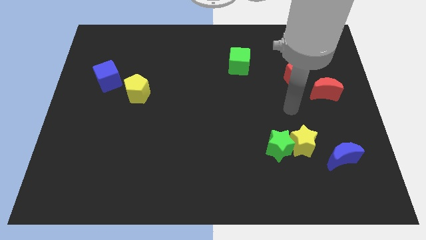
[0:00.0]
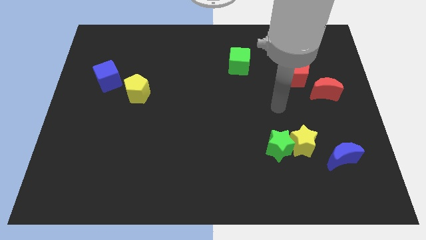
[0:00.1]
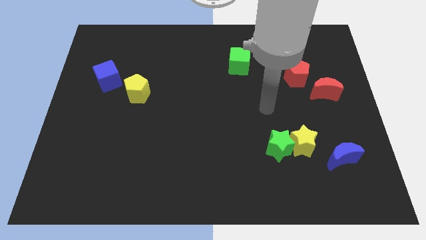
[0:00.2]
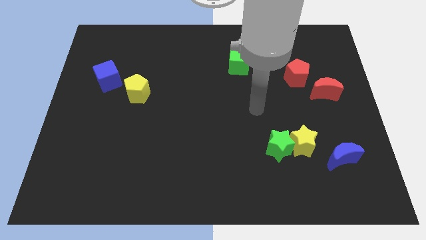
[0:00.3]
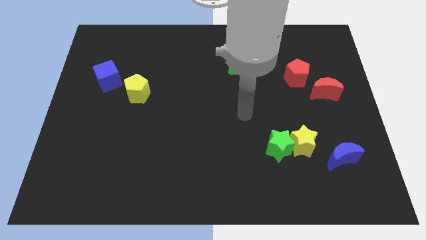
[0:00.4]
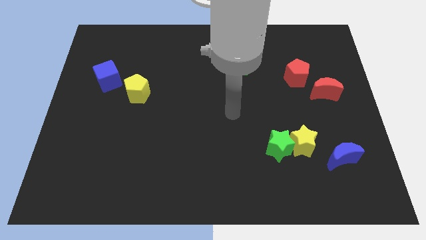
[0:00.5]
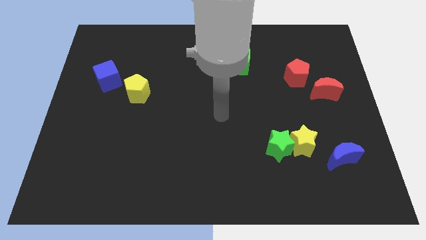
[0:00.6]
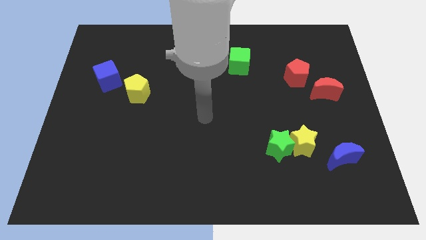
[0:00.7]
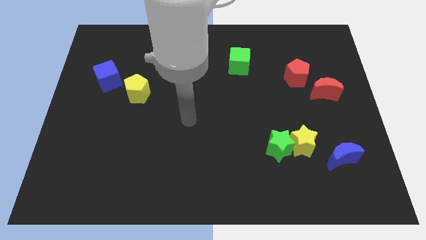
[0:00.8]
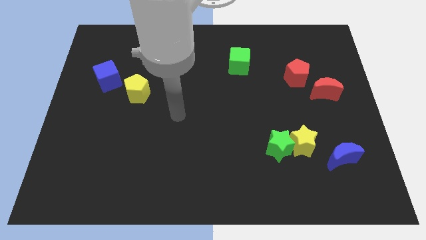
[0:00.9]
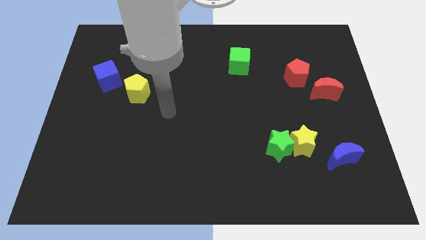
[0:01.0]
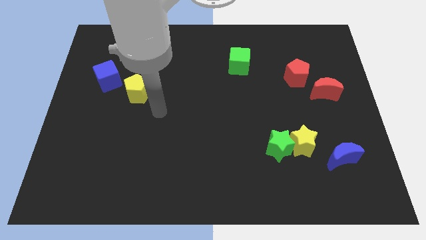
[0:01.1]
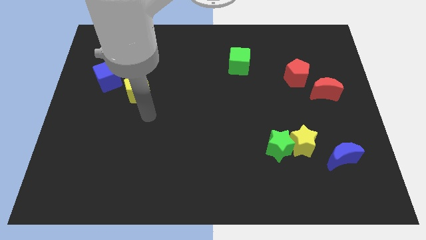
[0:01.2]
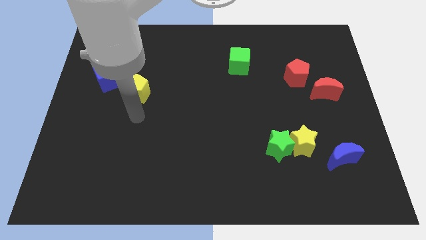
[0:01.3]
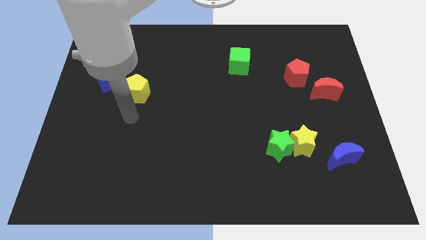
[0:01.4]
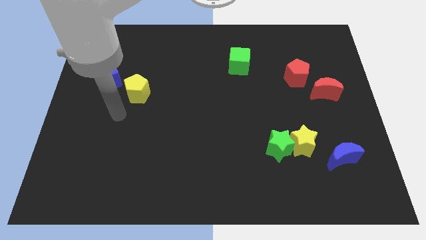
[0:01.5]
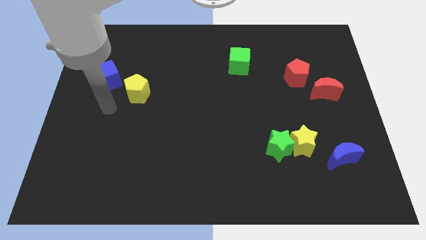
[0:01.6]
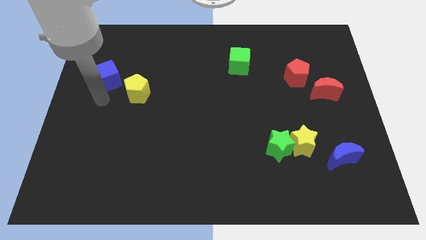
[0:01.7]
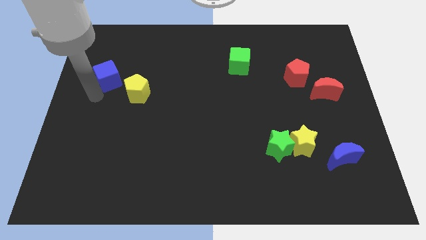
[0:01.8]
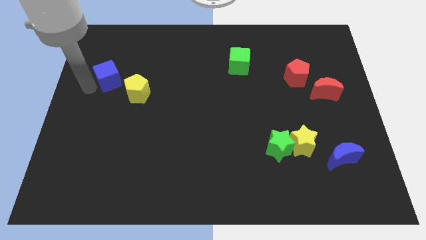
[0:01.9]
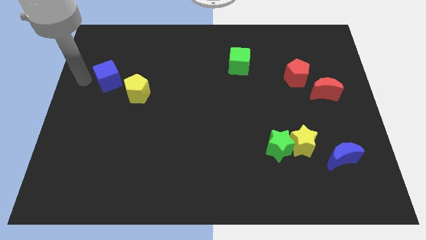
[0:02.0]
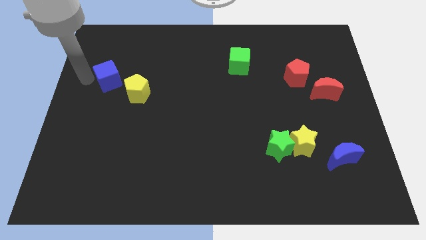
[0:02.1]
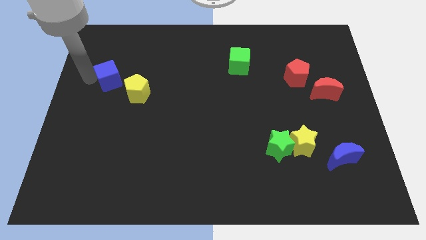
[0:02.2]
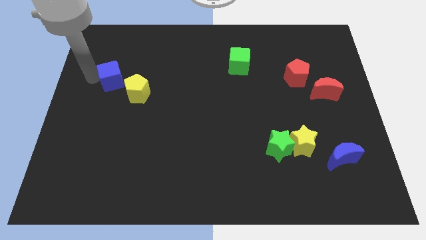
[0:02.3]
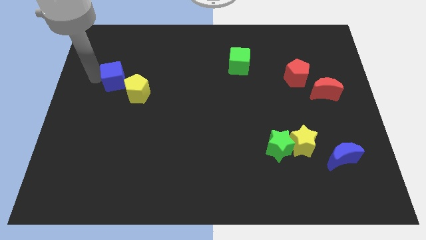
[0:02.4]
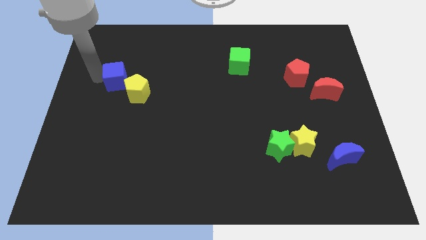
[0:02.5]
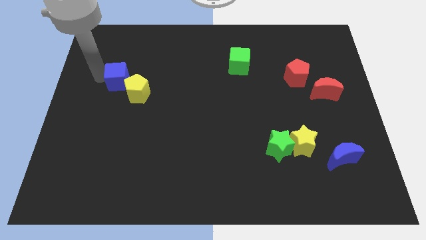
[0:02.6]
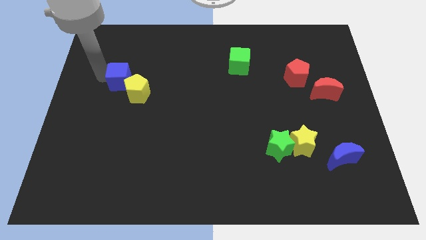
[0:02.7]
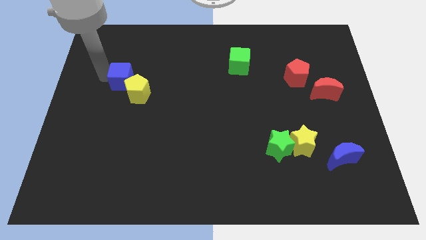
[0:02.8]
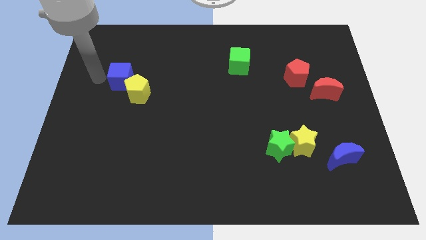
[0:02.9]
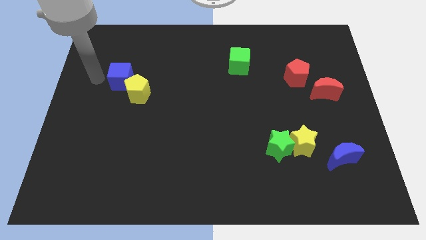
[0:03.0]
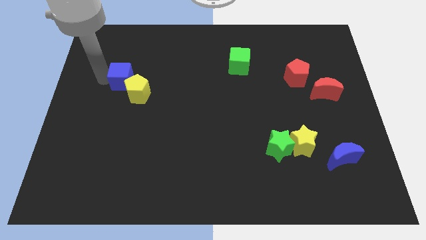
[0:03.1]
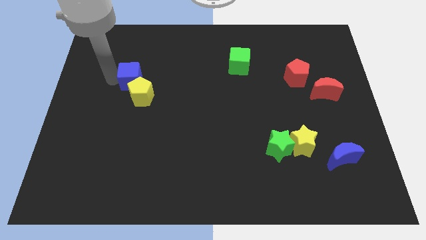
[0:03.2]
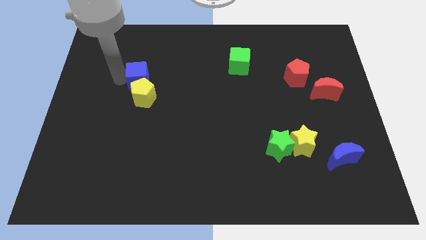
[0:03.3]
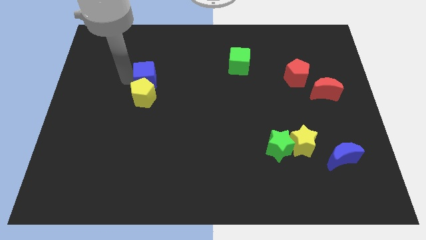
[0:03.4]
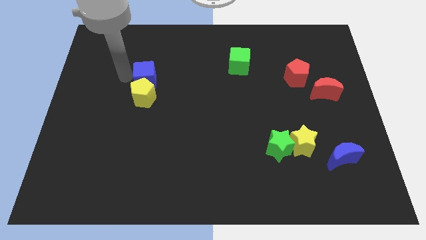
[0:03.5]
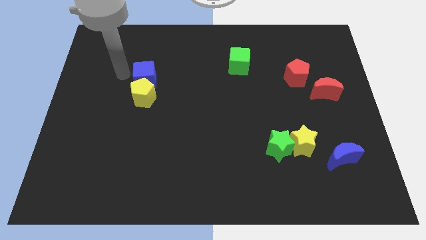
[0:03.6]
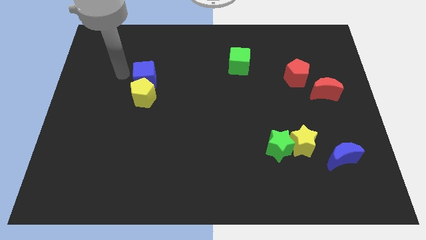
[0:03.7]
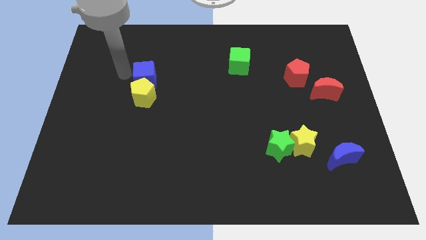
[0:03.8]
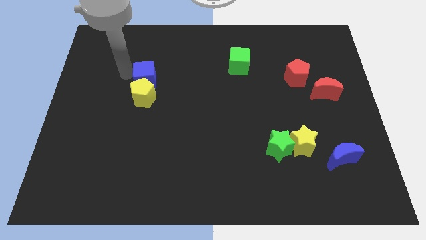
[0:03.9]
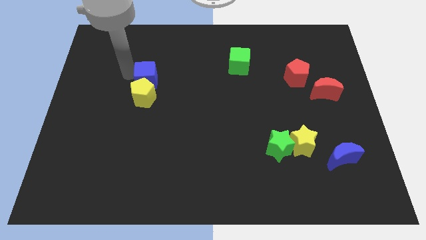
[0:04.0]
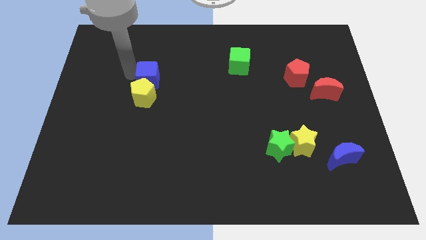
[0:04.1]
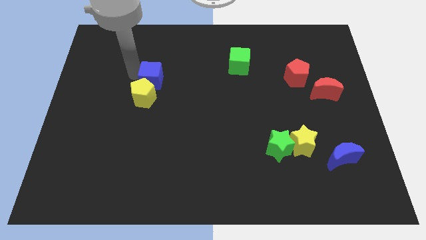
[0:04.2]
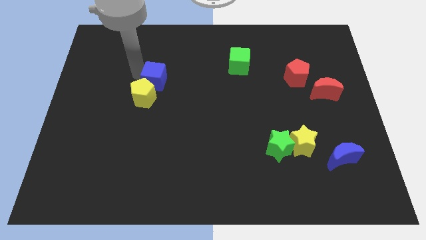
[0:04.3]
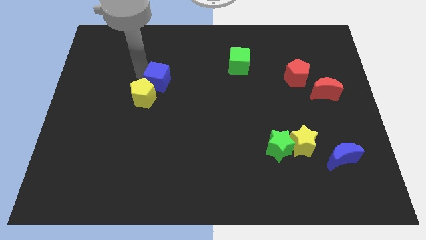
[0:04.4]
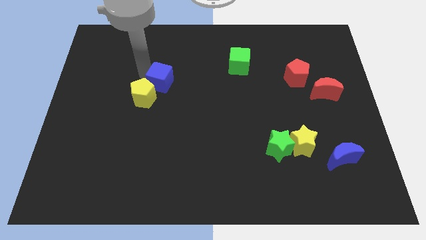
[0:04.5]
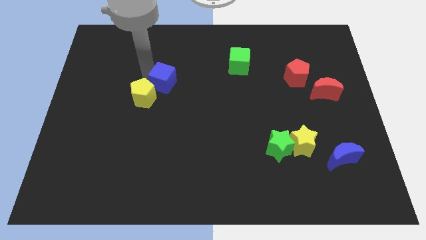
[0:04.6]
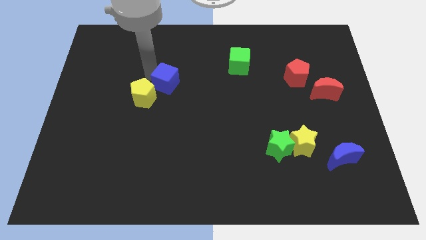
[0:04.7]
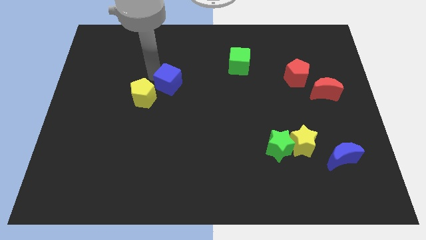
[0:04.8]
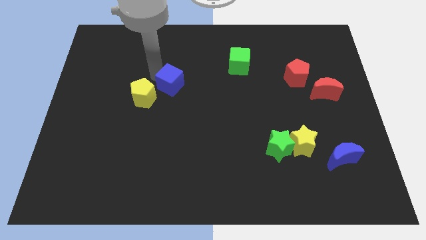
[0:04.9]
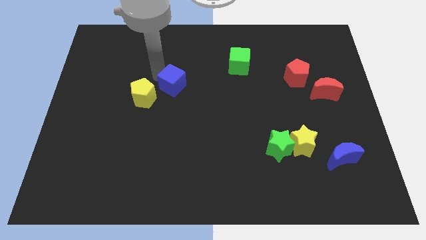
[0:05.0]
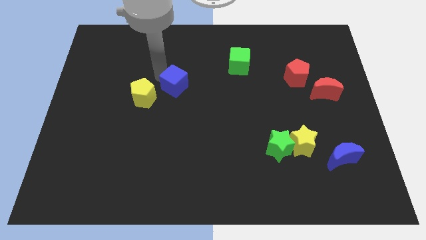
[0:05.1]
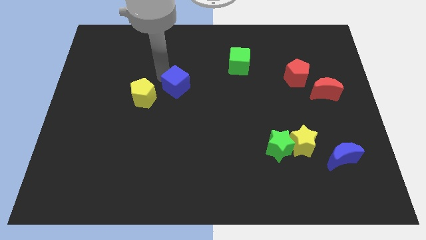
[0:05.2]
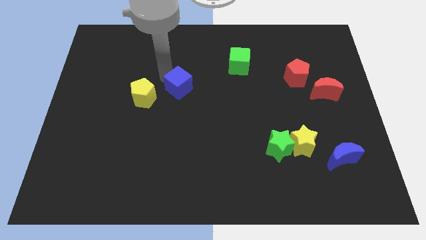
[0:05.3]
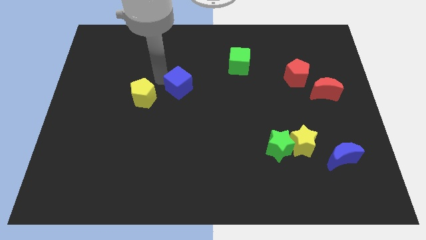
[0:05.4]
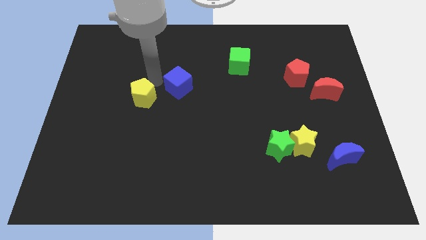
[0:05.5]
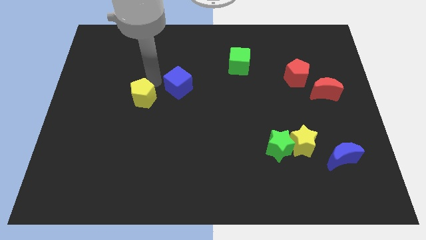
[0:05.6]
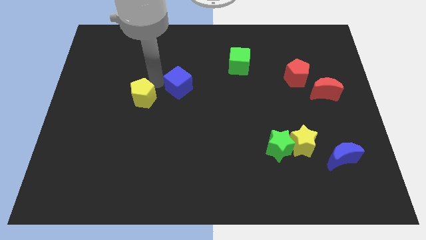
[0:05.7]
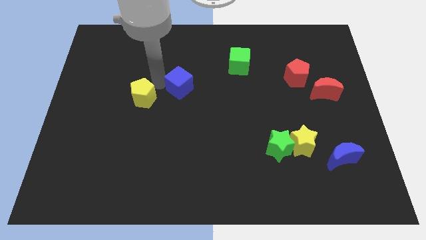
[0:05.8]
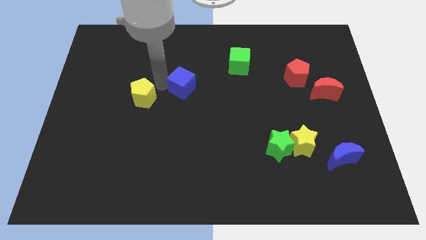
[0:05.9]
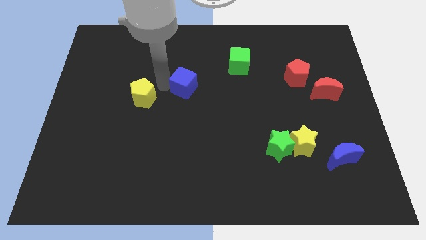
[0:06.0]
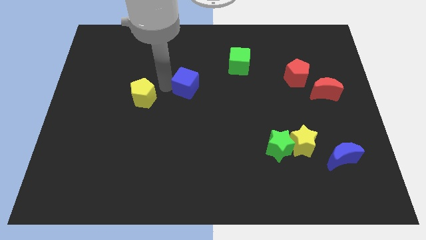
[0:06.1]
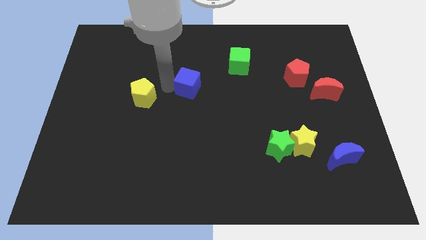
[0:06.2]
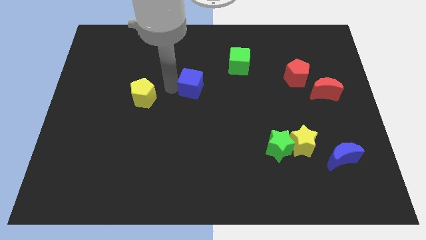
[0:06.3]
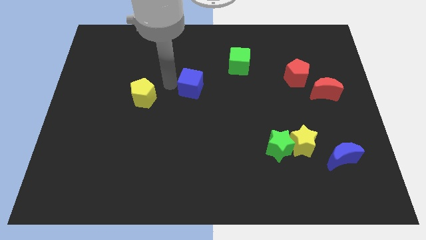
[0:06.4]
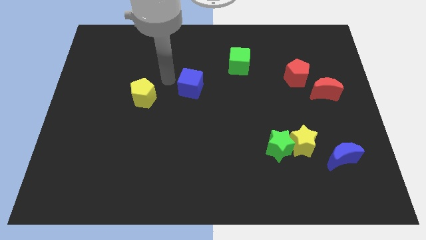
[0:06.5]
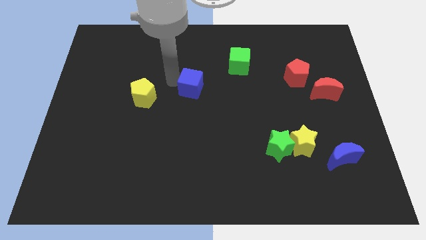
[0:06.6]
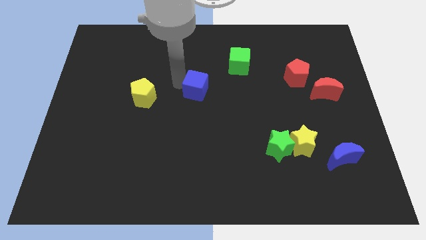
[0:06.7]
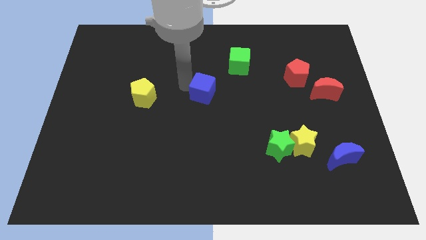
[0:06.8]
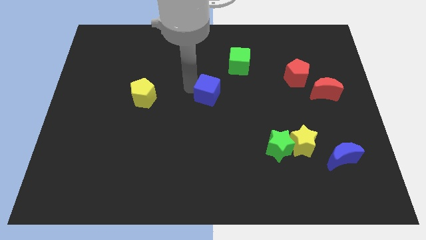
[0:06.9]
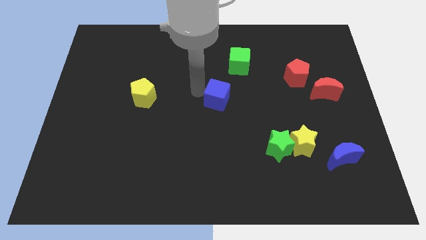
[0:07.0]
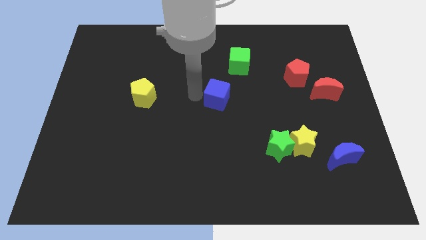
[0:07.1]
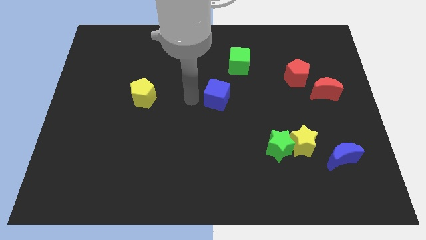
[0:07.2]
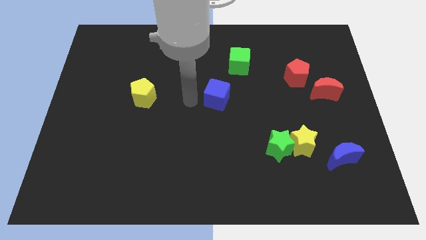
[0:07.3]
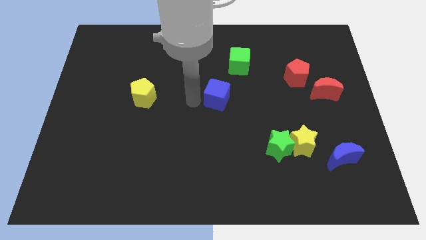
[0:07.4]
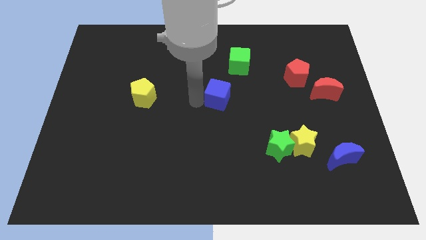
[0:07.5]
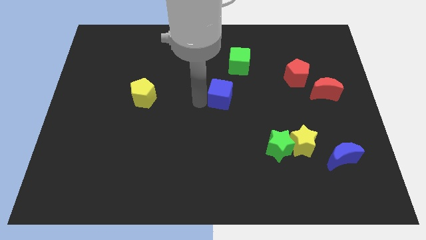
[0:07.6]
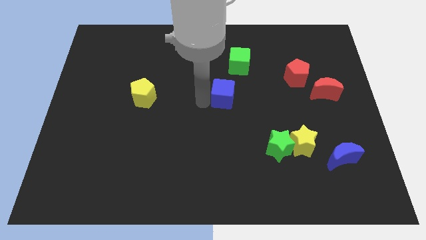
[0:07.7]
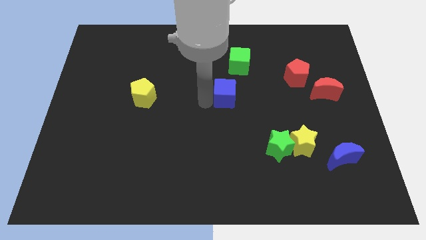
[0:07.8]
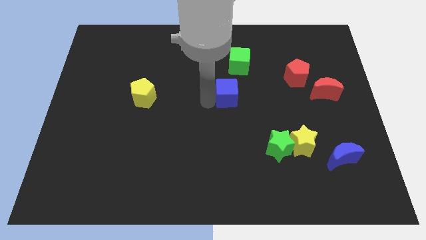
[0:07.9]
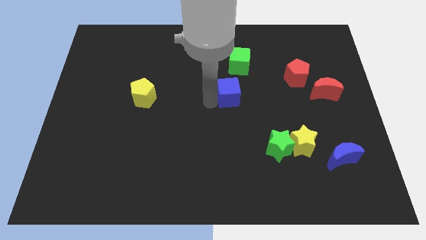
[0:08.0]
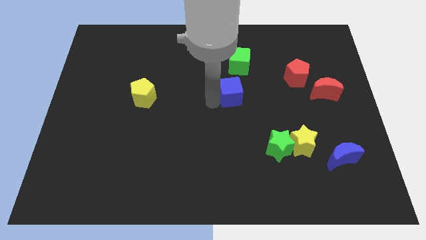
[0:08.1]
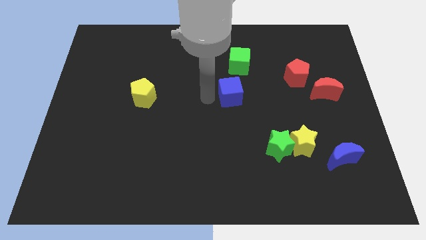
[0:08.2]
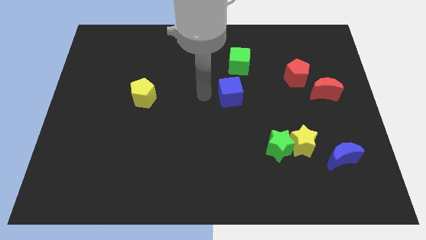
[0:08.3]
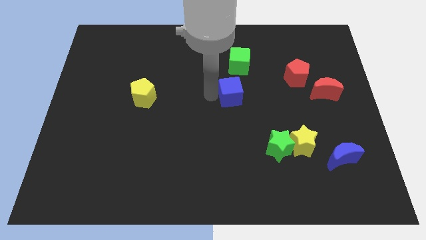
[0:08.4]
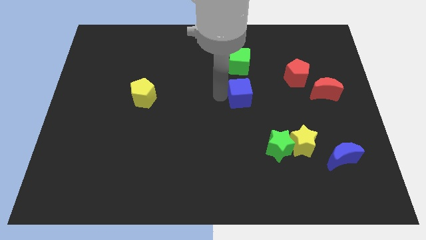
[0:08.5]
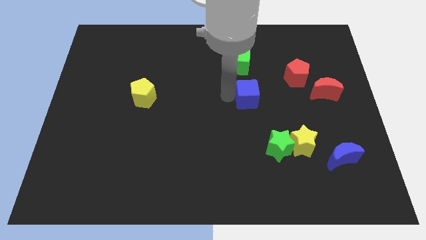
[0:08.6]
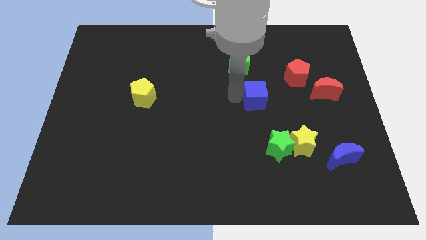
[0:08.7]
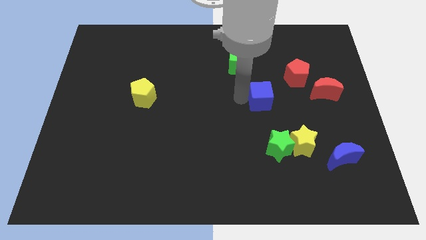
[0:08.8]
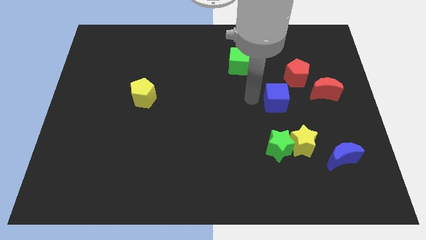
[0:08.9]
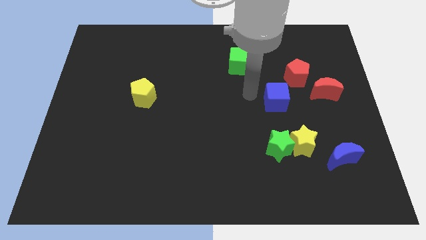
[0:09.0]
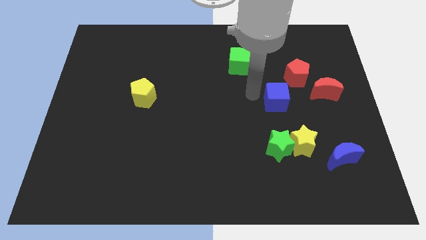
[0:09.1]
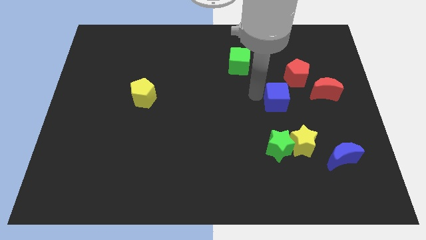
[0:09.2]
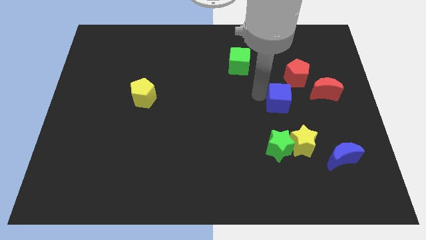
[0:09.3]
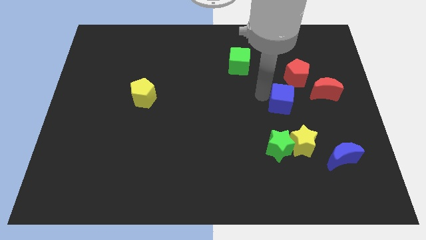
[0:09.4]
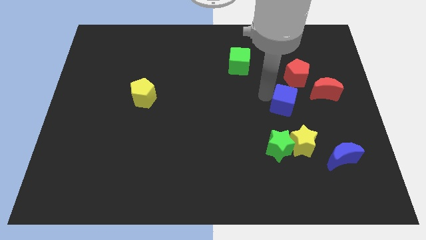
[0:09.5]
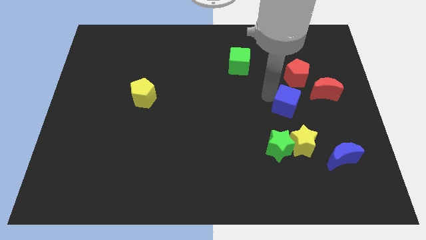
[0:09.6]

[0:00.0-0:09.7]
put the blue cube to the bottom left of the red moon
